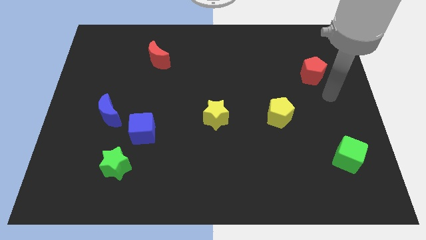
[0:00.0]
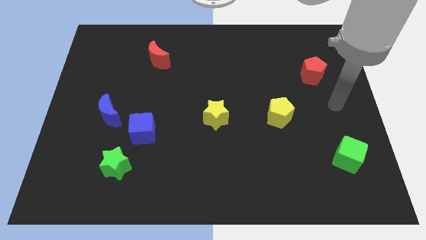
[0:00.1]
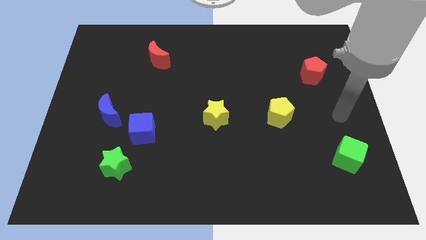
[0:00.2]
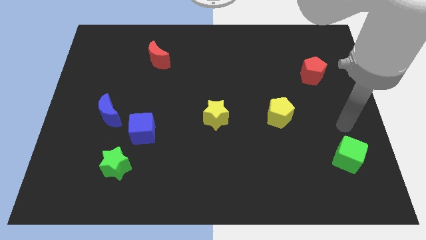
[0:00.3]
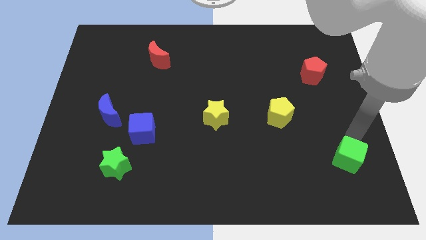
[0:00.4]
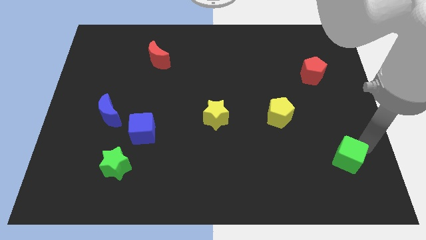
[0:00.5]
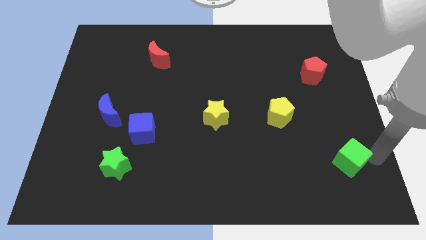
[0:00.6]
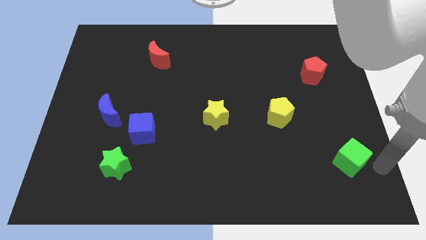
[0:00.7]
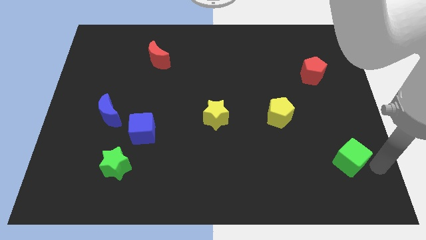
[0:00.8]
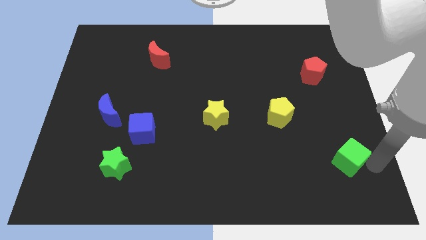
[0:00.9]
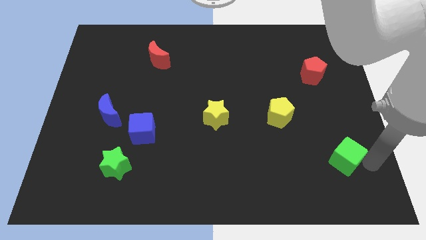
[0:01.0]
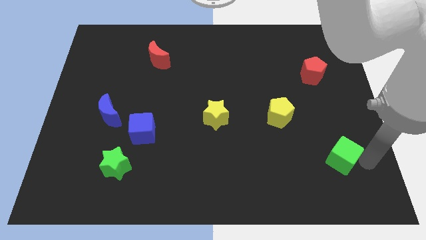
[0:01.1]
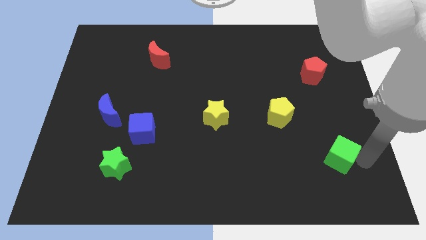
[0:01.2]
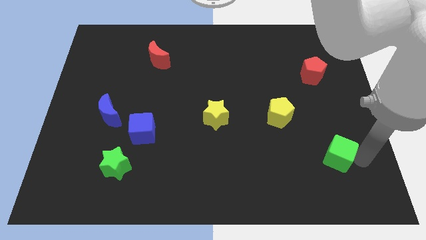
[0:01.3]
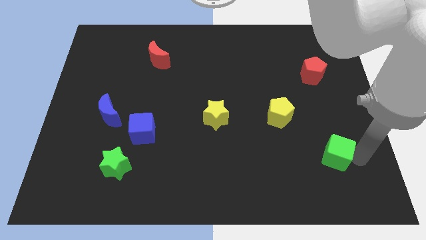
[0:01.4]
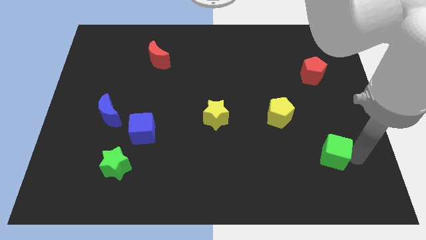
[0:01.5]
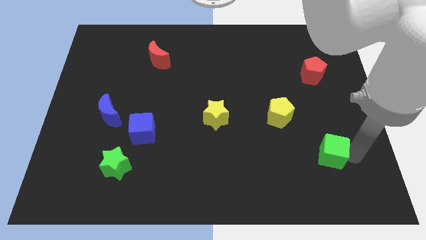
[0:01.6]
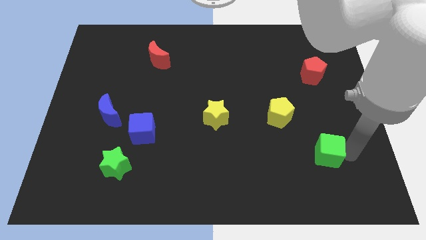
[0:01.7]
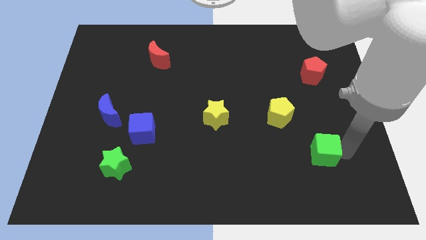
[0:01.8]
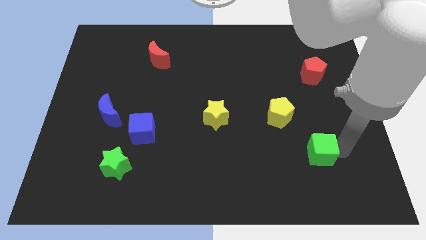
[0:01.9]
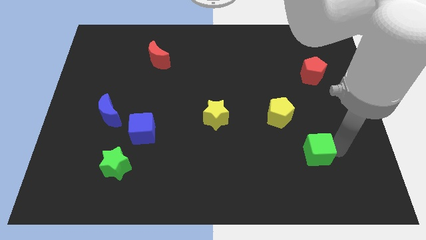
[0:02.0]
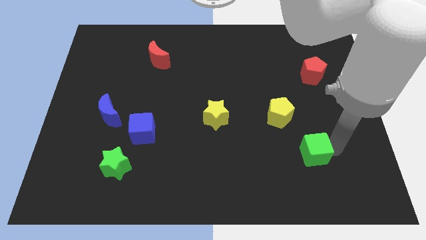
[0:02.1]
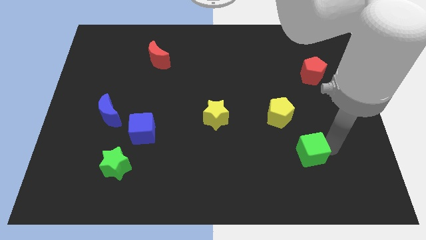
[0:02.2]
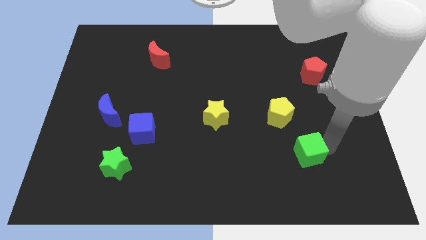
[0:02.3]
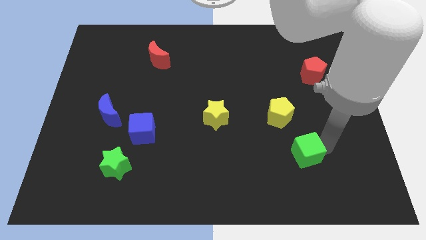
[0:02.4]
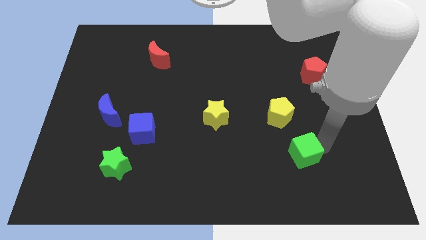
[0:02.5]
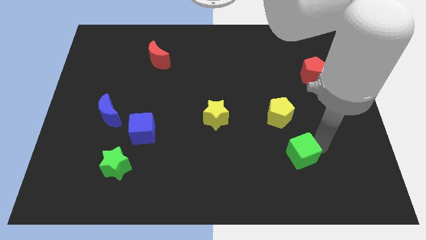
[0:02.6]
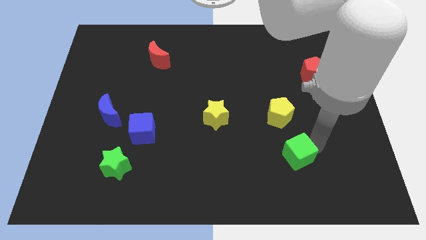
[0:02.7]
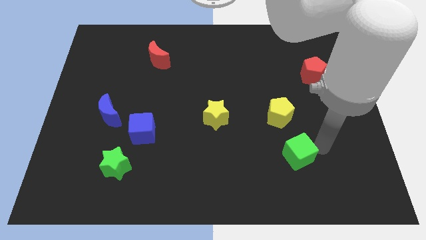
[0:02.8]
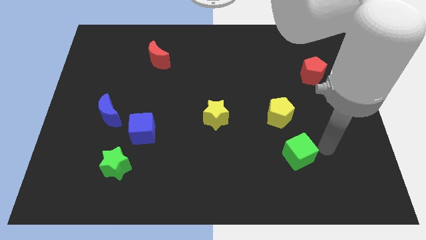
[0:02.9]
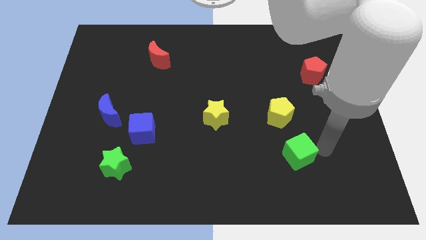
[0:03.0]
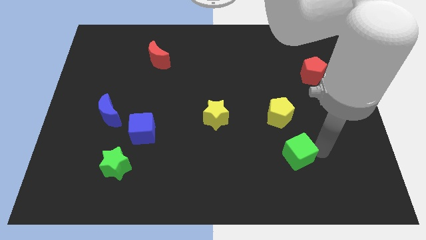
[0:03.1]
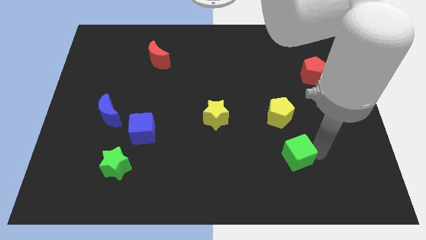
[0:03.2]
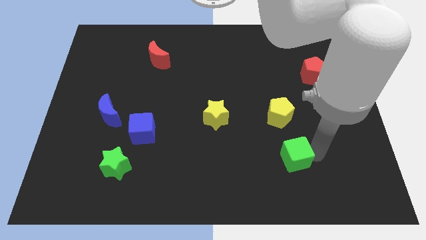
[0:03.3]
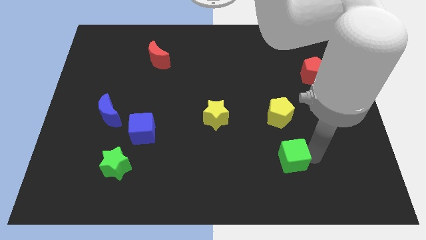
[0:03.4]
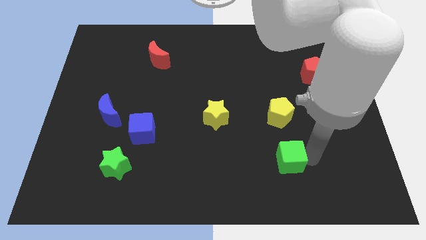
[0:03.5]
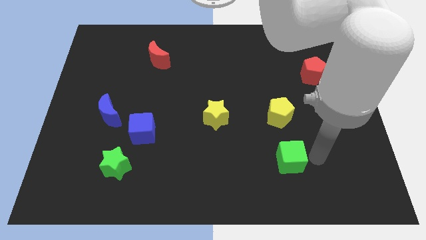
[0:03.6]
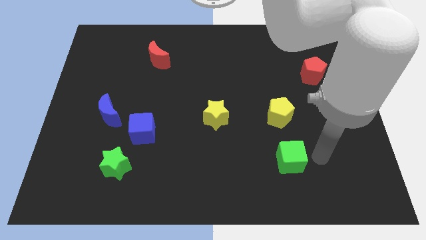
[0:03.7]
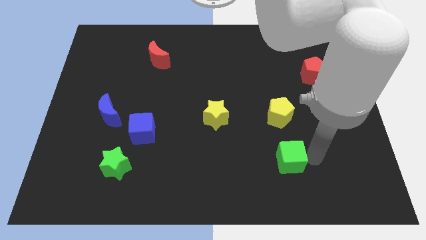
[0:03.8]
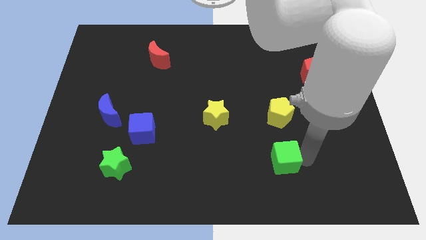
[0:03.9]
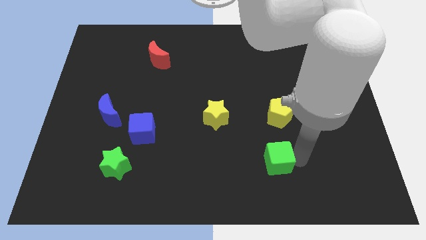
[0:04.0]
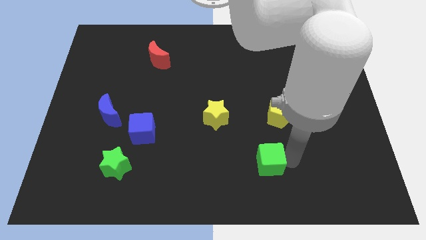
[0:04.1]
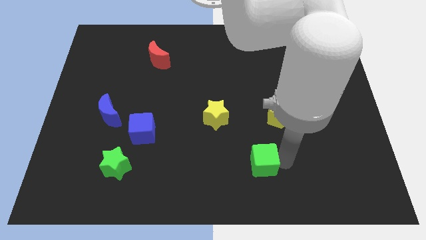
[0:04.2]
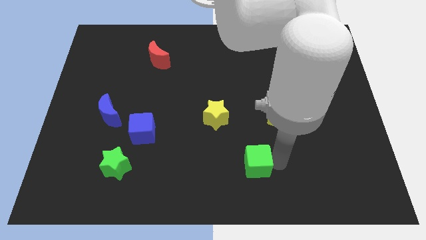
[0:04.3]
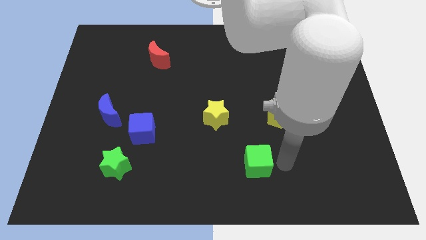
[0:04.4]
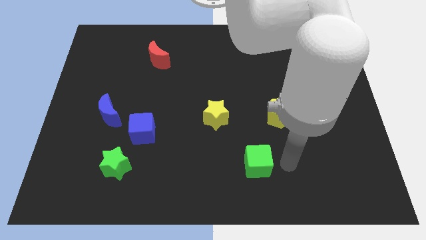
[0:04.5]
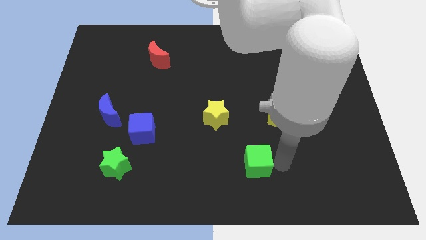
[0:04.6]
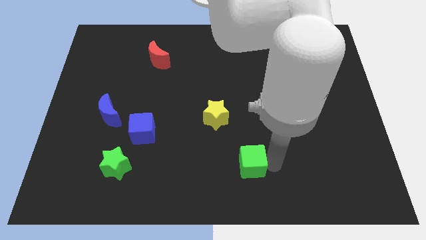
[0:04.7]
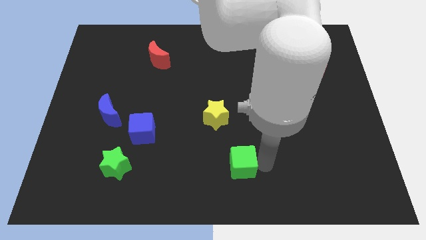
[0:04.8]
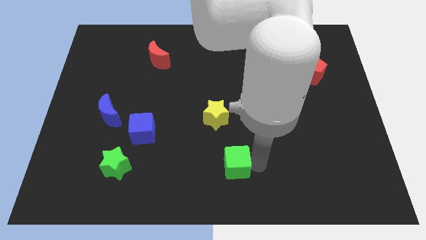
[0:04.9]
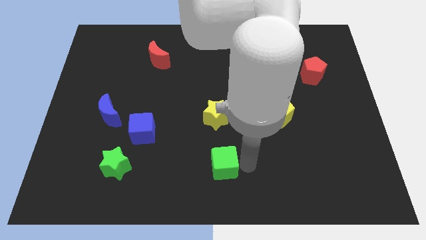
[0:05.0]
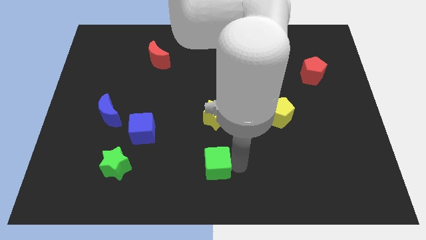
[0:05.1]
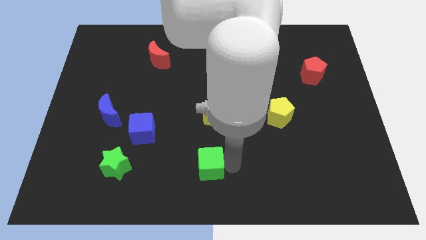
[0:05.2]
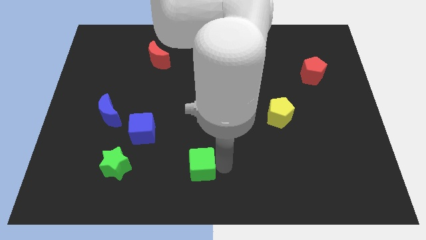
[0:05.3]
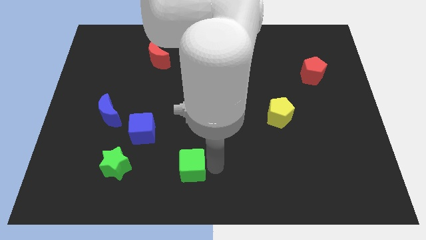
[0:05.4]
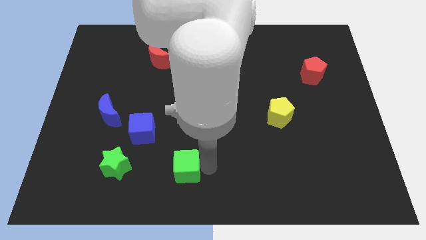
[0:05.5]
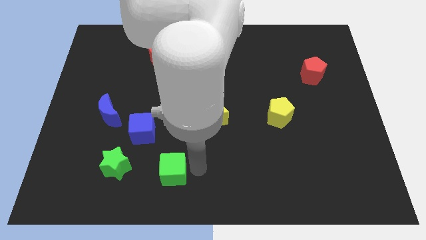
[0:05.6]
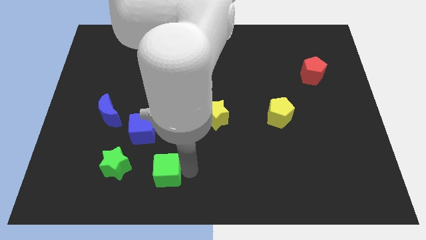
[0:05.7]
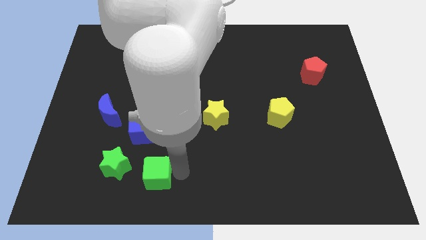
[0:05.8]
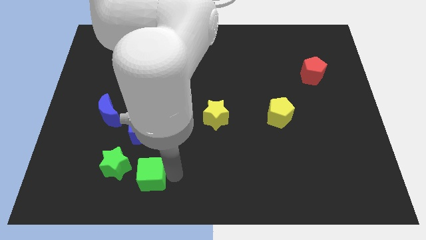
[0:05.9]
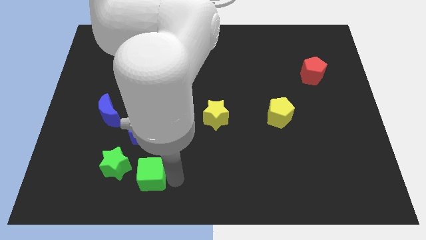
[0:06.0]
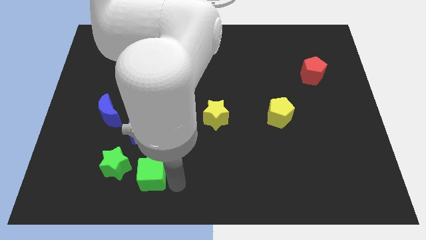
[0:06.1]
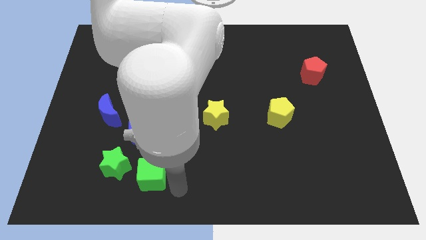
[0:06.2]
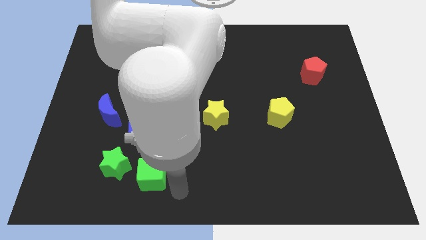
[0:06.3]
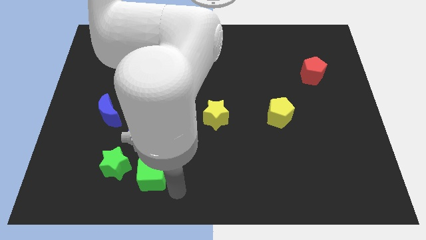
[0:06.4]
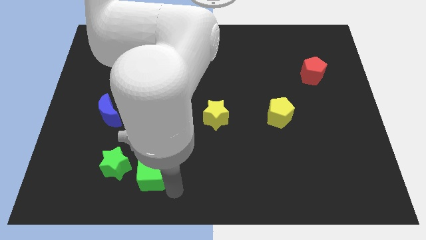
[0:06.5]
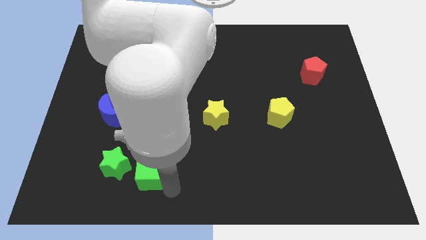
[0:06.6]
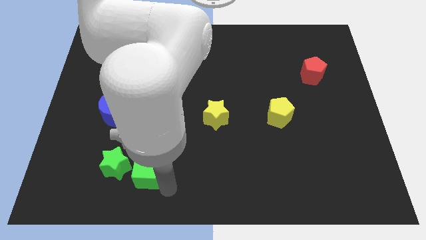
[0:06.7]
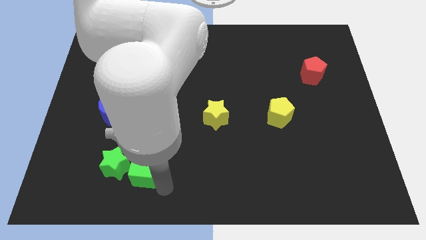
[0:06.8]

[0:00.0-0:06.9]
put the green cube towards the green star

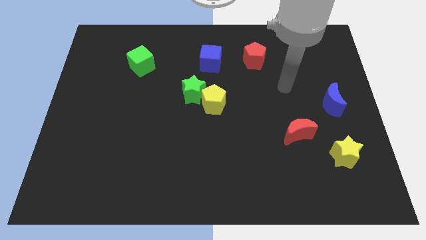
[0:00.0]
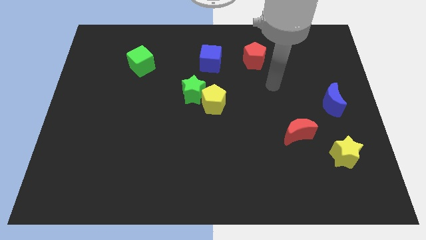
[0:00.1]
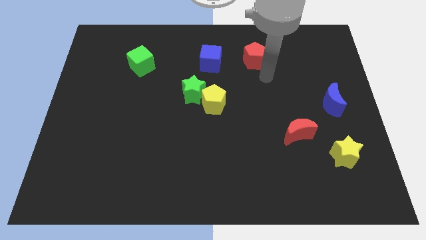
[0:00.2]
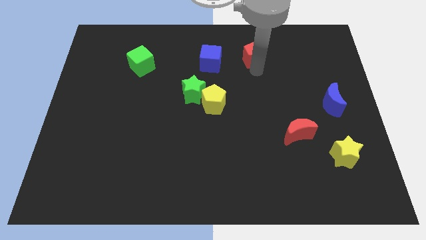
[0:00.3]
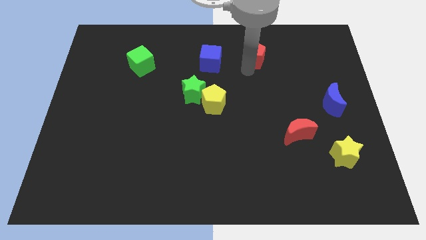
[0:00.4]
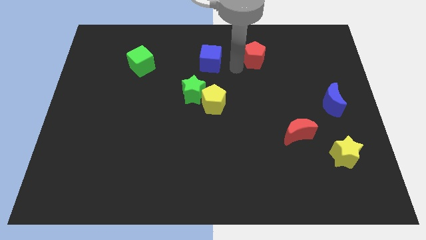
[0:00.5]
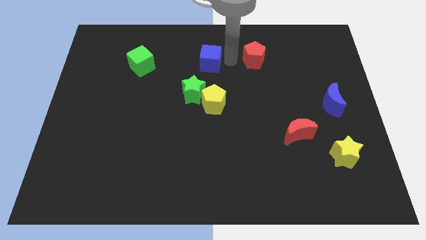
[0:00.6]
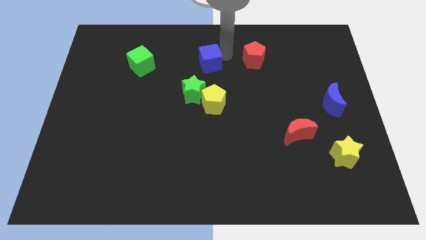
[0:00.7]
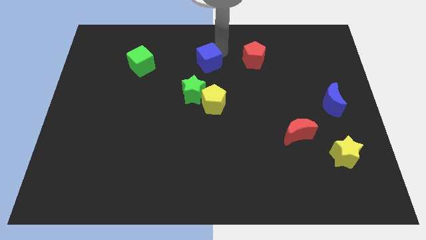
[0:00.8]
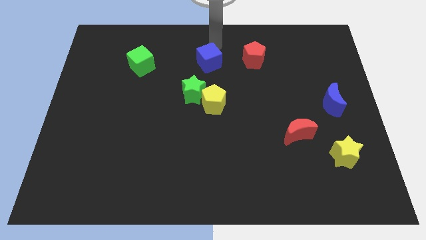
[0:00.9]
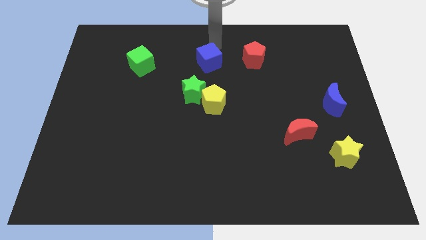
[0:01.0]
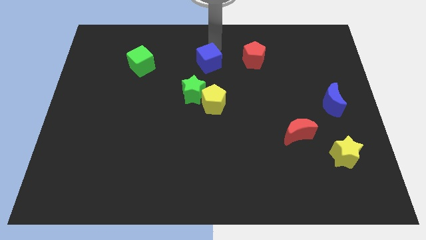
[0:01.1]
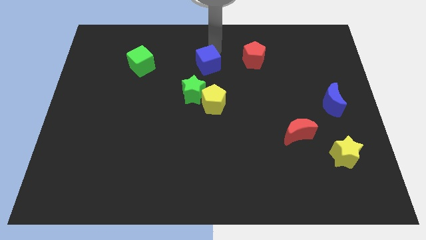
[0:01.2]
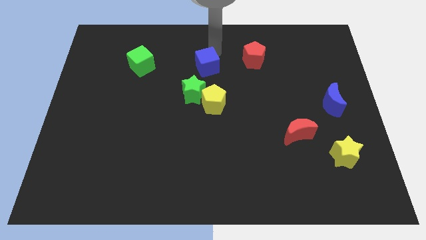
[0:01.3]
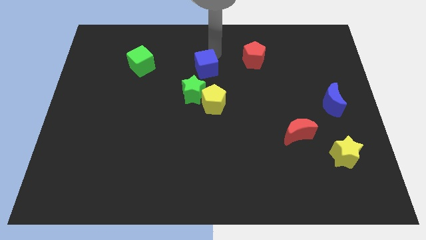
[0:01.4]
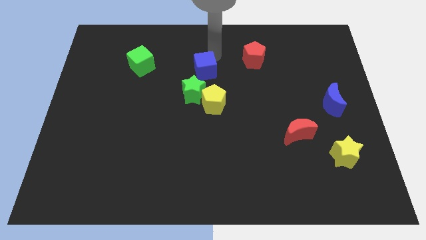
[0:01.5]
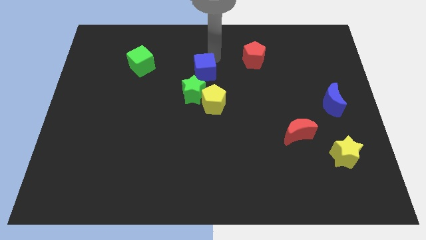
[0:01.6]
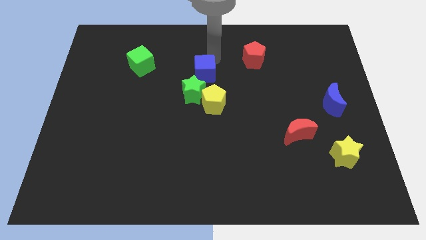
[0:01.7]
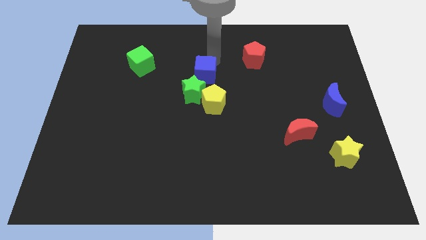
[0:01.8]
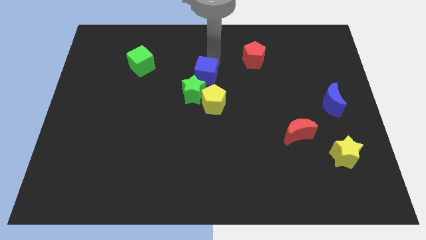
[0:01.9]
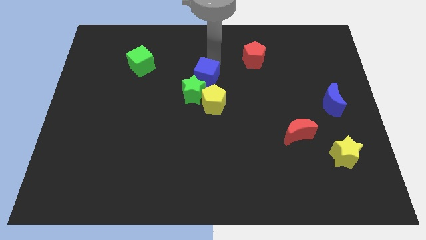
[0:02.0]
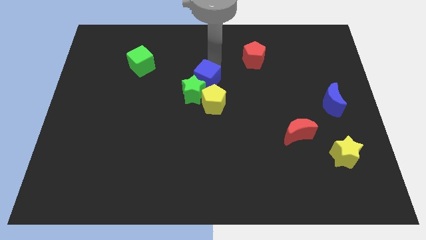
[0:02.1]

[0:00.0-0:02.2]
move the blue cube to the green star
